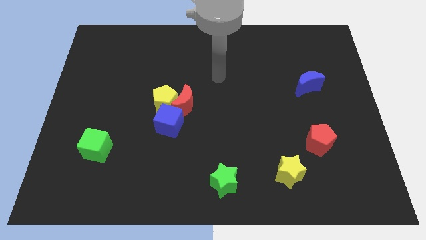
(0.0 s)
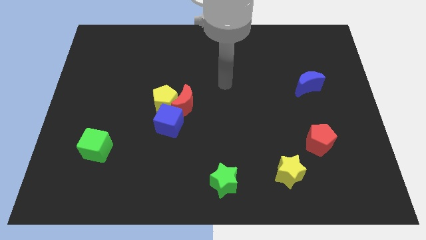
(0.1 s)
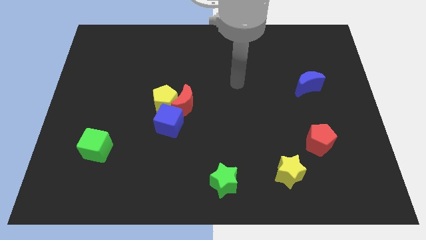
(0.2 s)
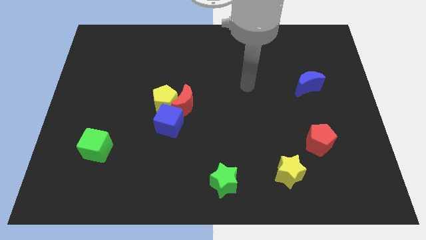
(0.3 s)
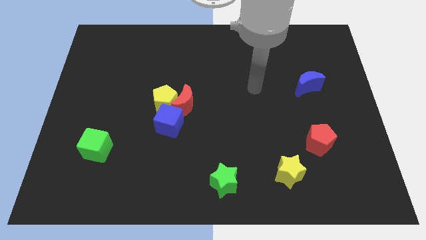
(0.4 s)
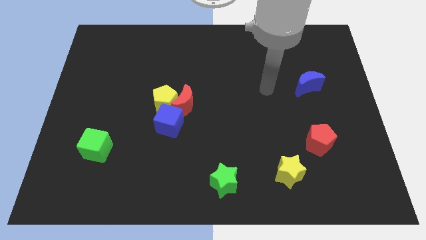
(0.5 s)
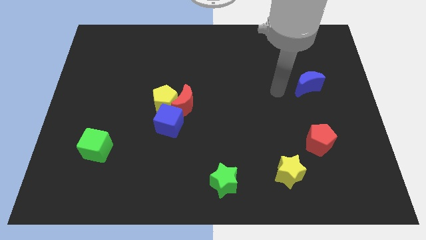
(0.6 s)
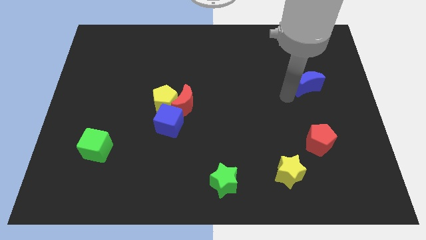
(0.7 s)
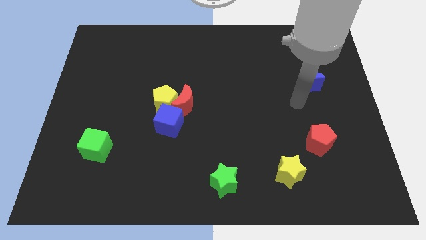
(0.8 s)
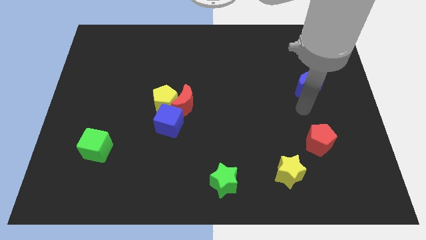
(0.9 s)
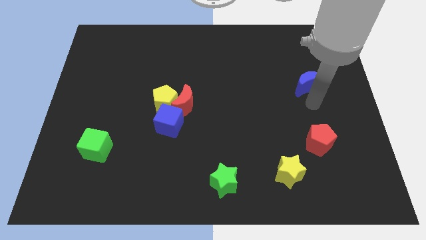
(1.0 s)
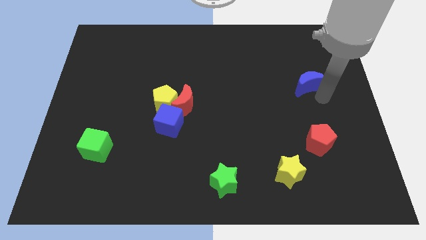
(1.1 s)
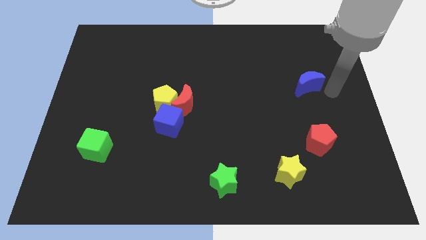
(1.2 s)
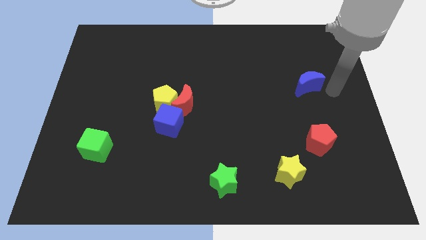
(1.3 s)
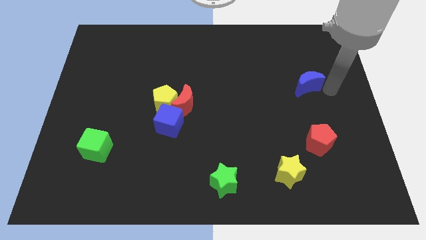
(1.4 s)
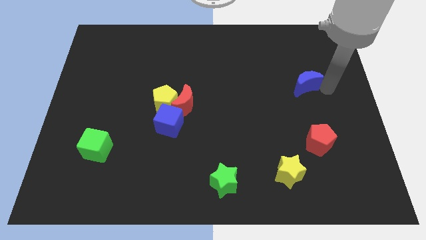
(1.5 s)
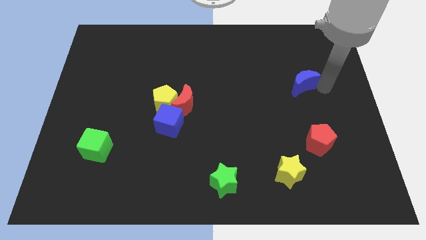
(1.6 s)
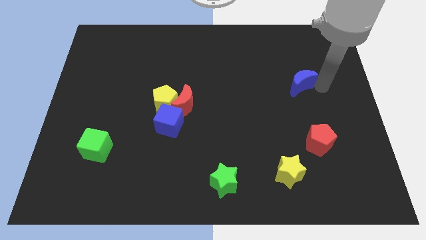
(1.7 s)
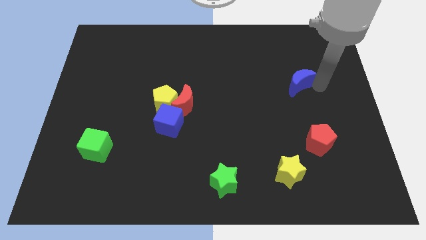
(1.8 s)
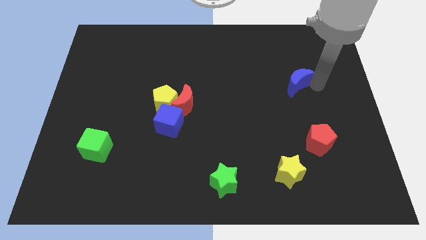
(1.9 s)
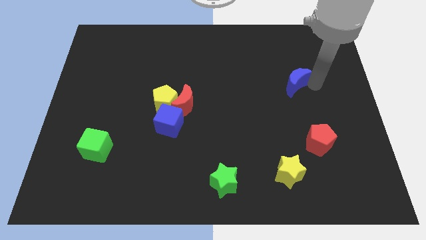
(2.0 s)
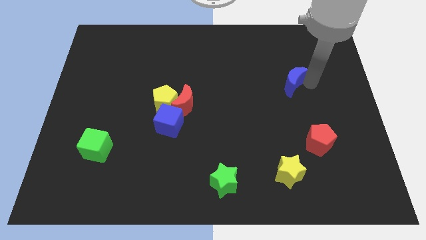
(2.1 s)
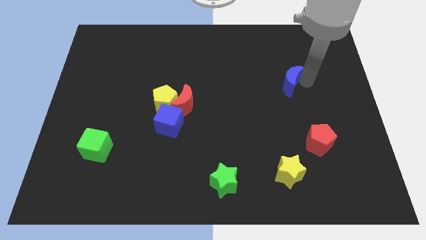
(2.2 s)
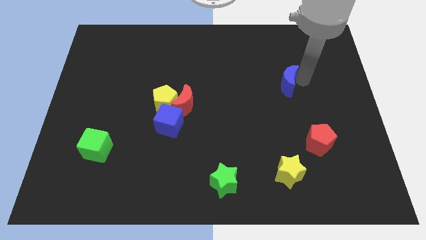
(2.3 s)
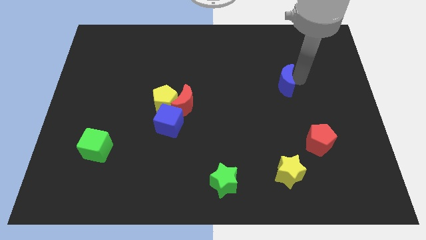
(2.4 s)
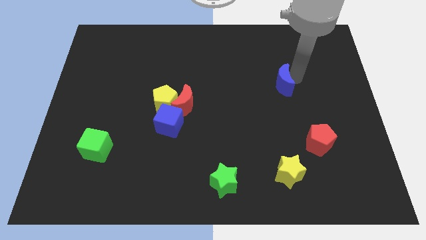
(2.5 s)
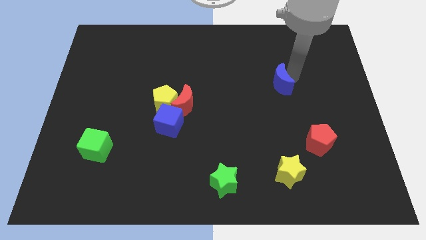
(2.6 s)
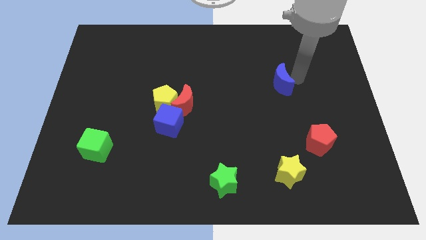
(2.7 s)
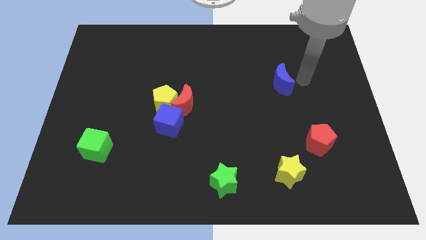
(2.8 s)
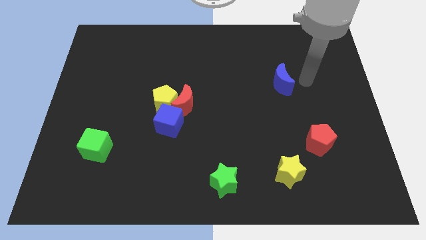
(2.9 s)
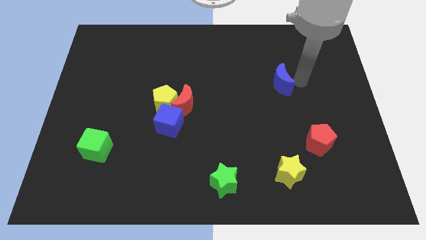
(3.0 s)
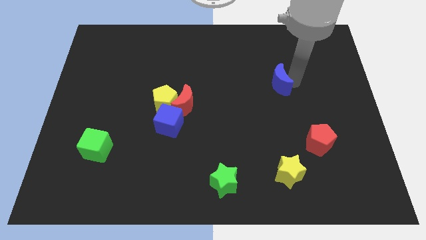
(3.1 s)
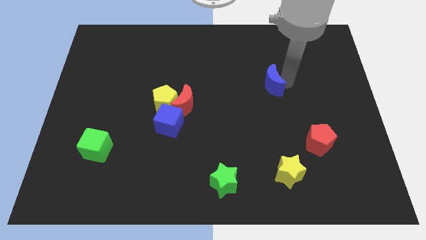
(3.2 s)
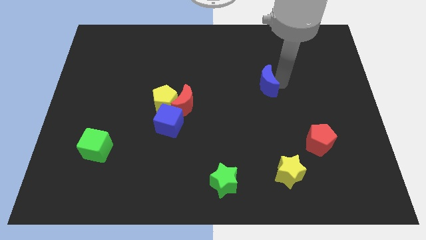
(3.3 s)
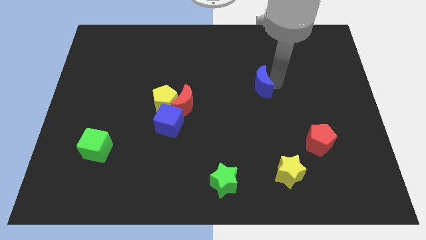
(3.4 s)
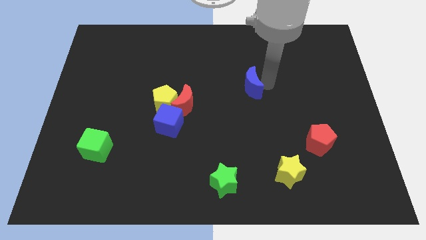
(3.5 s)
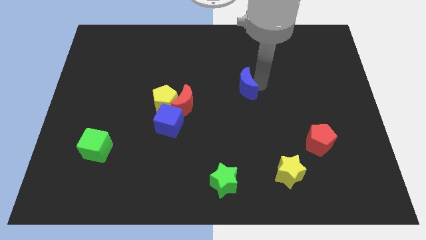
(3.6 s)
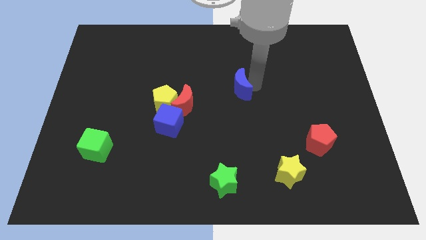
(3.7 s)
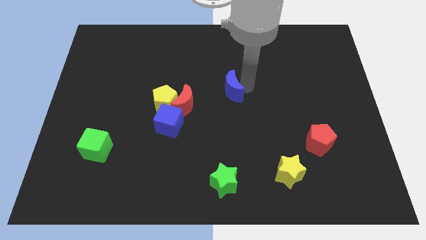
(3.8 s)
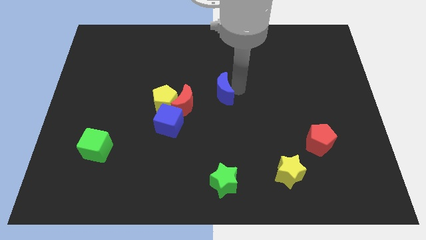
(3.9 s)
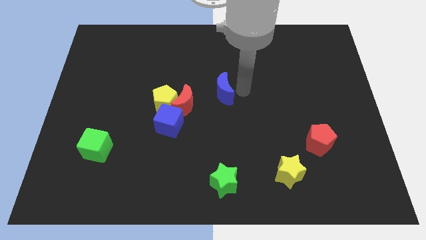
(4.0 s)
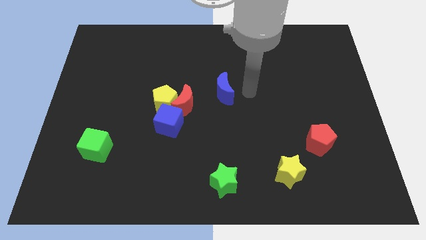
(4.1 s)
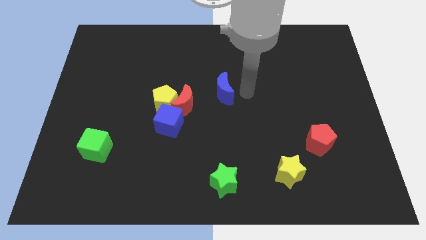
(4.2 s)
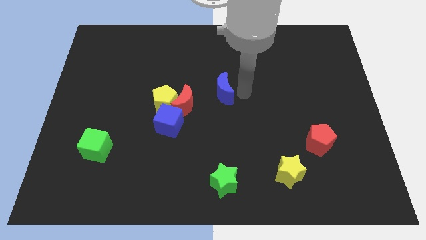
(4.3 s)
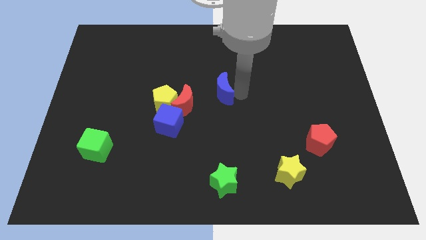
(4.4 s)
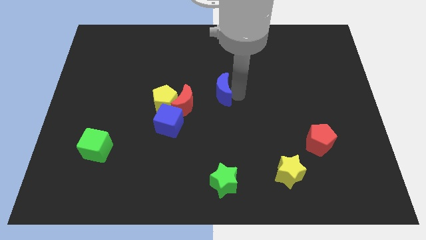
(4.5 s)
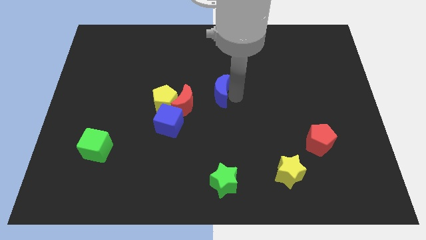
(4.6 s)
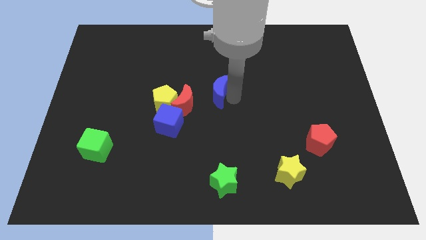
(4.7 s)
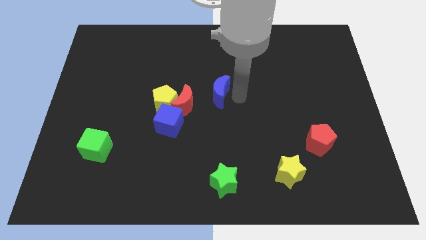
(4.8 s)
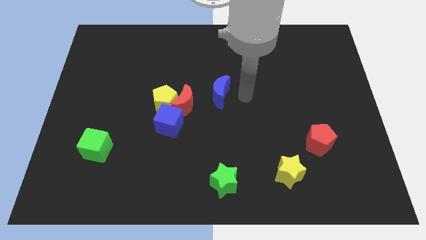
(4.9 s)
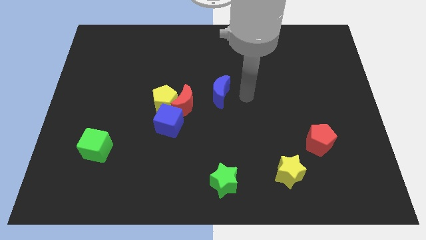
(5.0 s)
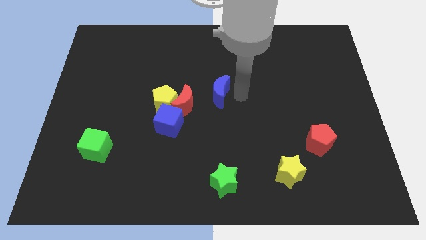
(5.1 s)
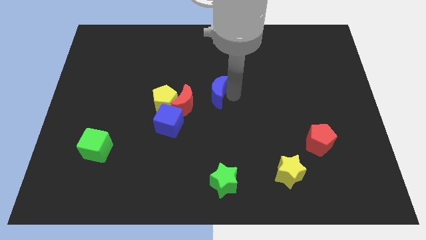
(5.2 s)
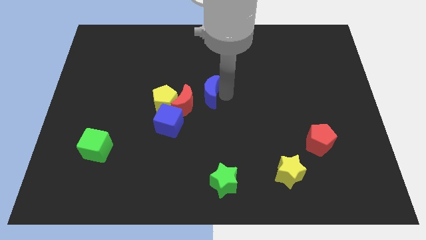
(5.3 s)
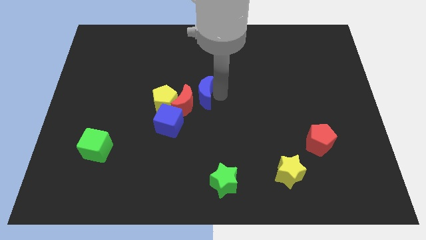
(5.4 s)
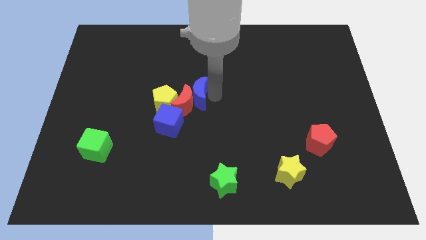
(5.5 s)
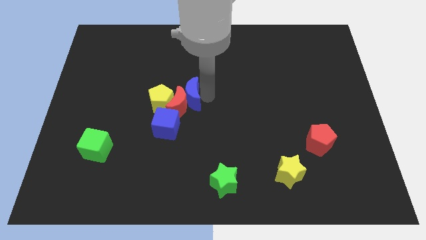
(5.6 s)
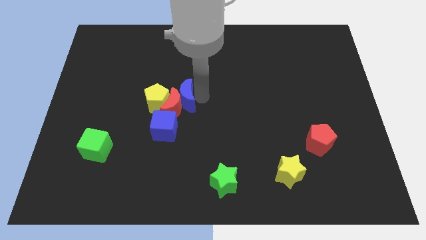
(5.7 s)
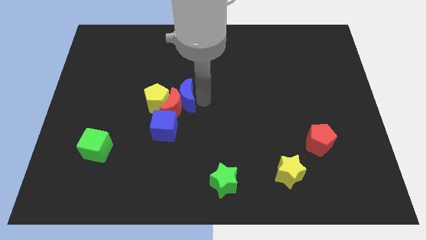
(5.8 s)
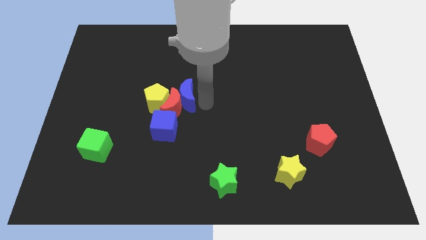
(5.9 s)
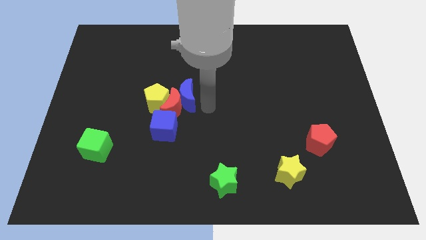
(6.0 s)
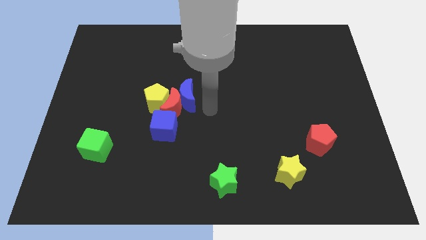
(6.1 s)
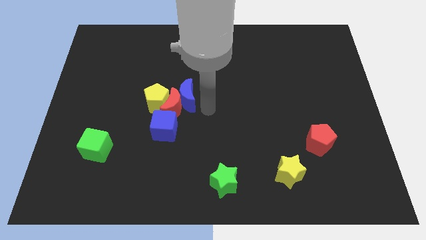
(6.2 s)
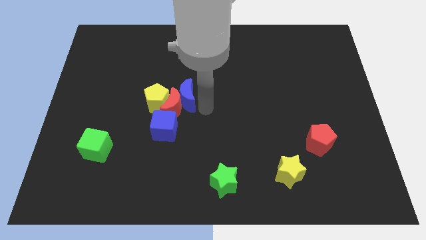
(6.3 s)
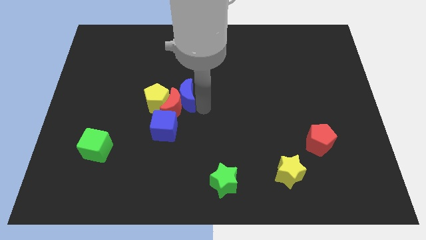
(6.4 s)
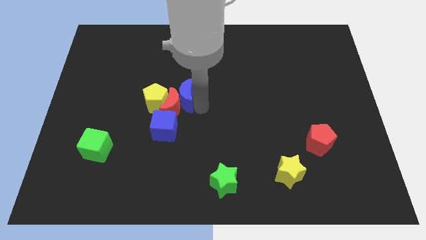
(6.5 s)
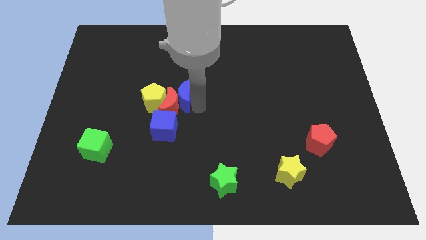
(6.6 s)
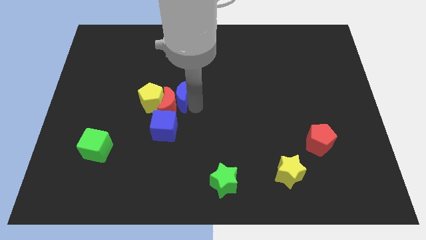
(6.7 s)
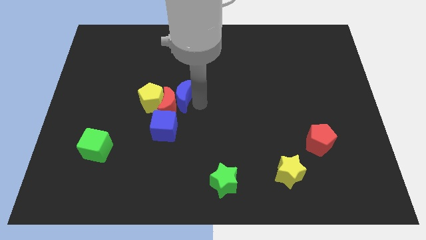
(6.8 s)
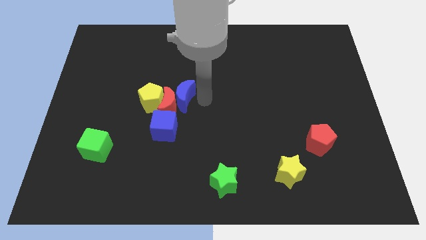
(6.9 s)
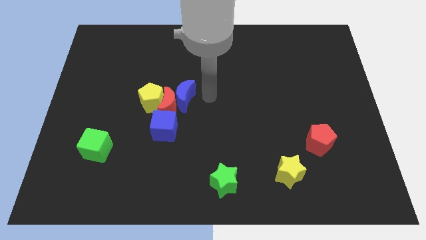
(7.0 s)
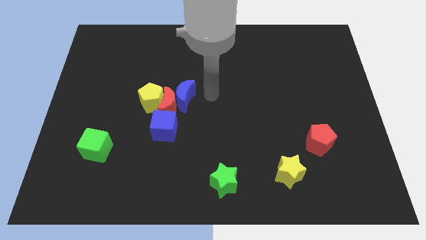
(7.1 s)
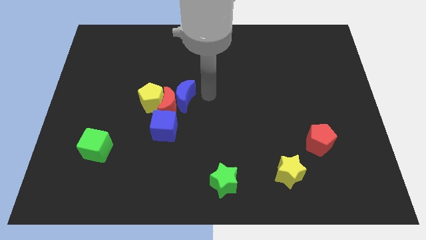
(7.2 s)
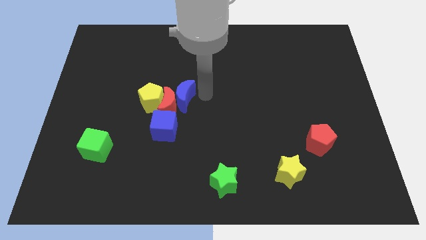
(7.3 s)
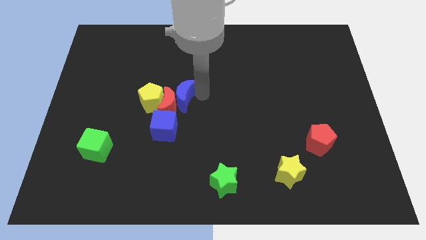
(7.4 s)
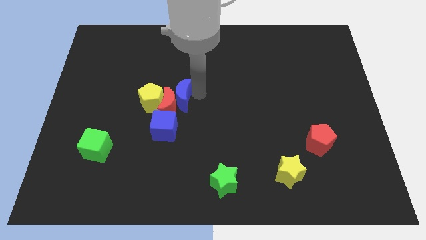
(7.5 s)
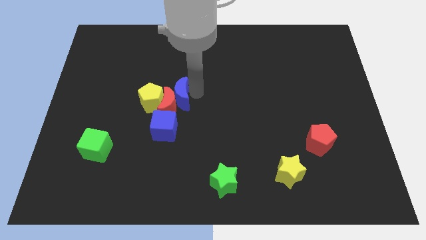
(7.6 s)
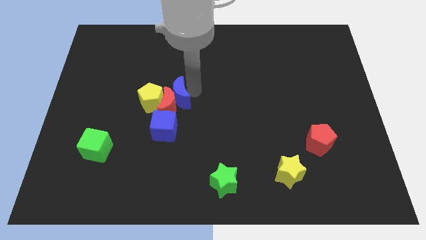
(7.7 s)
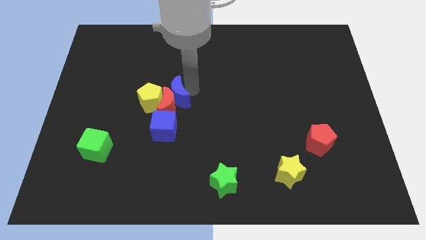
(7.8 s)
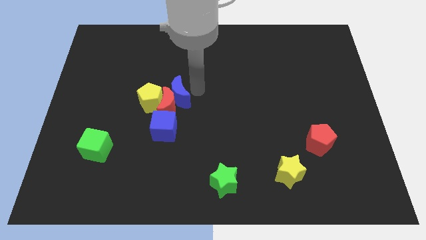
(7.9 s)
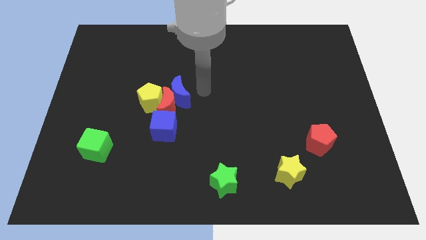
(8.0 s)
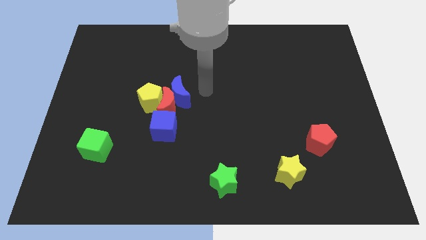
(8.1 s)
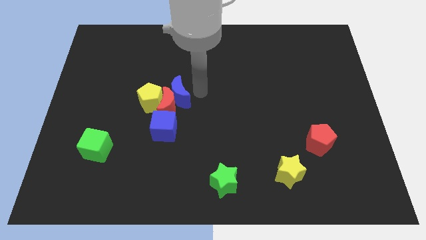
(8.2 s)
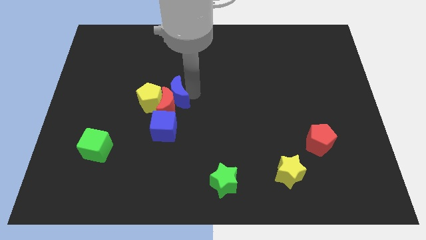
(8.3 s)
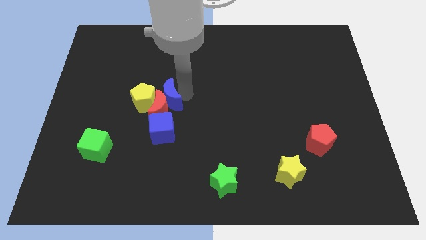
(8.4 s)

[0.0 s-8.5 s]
push the blue moon close to the yellow pentagon
